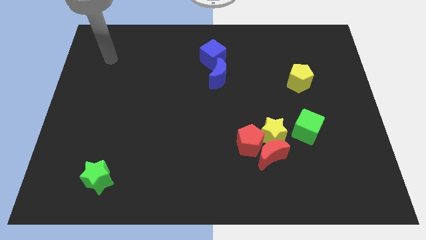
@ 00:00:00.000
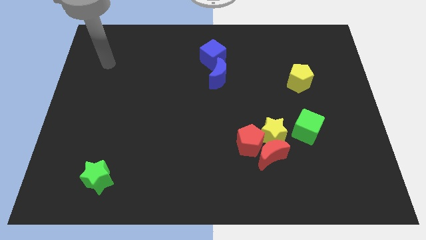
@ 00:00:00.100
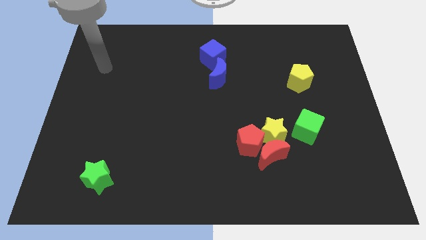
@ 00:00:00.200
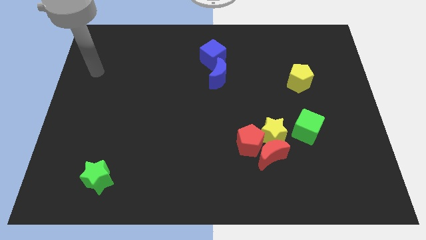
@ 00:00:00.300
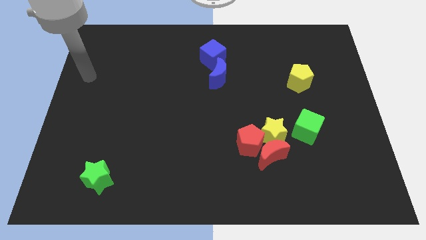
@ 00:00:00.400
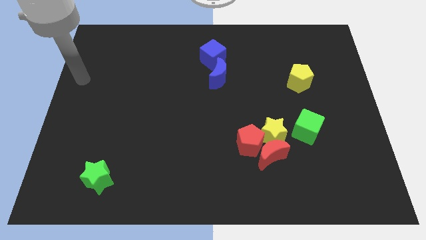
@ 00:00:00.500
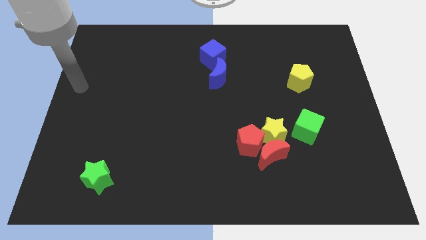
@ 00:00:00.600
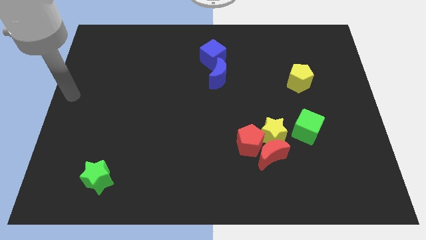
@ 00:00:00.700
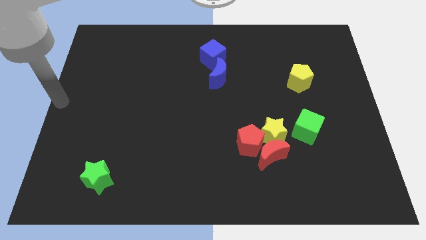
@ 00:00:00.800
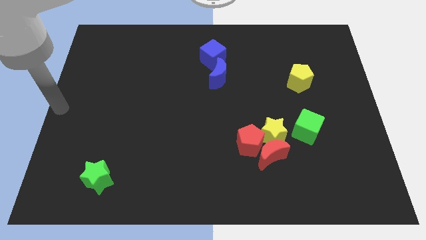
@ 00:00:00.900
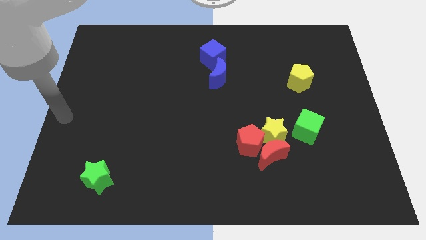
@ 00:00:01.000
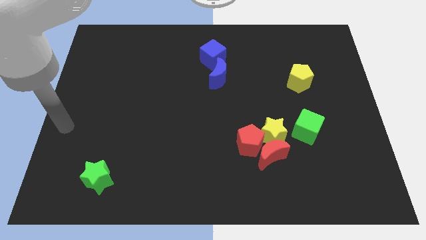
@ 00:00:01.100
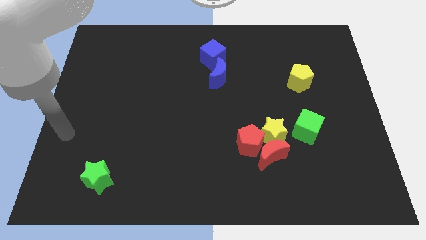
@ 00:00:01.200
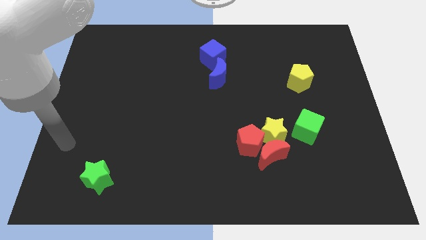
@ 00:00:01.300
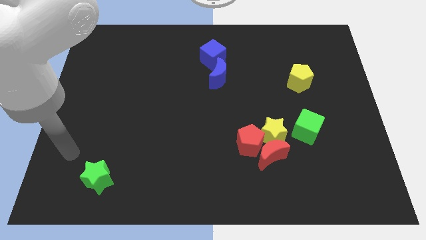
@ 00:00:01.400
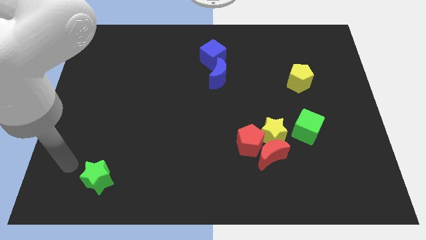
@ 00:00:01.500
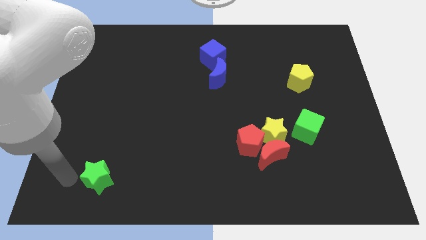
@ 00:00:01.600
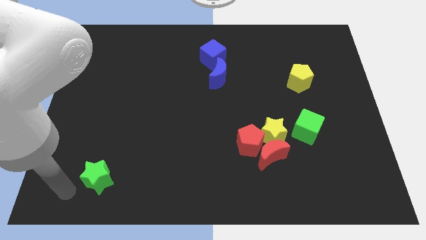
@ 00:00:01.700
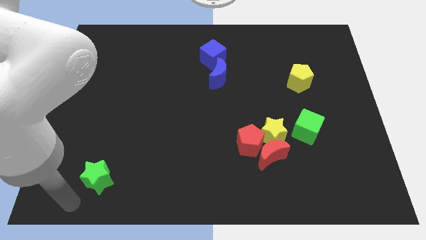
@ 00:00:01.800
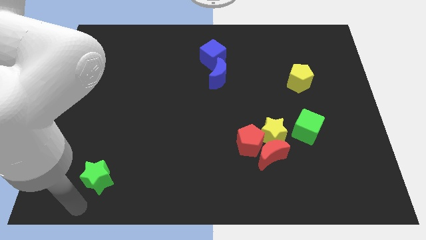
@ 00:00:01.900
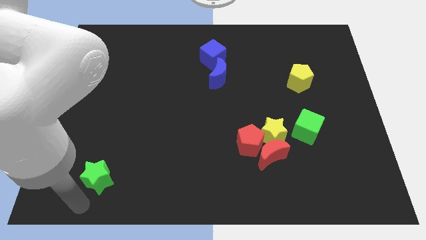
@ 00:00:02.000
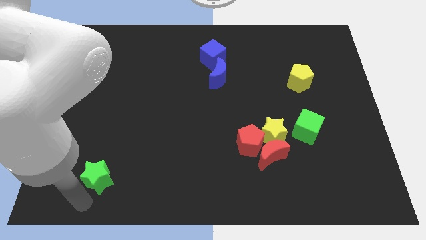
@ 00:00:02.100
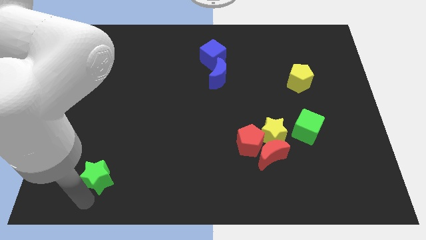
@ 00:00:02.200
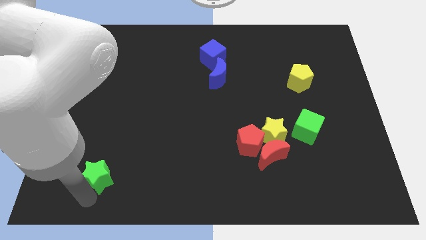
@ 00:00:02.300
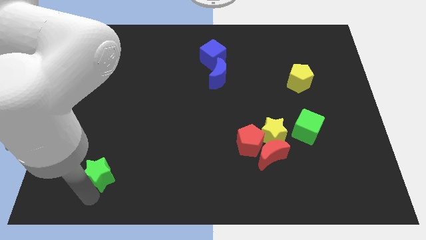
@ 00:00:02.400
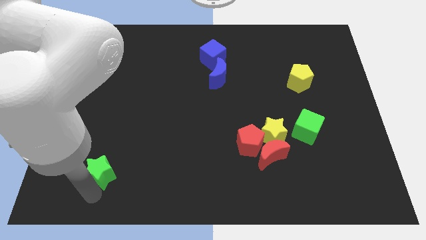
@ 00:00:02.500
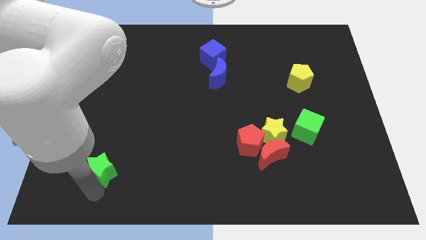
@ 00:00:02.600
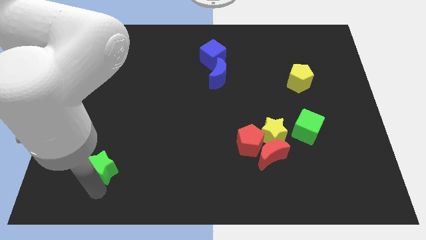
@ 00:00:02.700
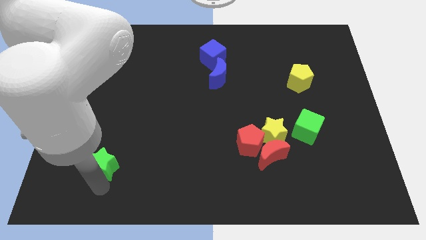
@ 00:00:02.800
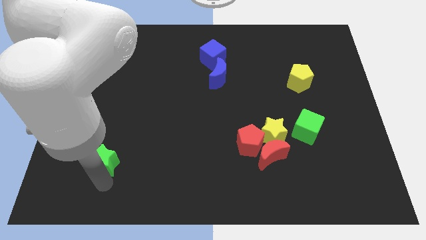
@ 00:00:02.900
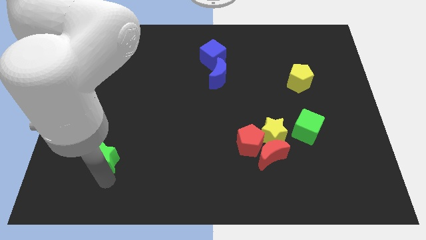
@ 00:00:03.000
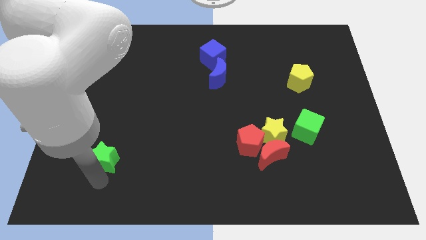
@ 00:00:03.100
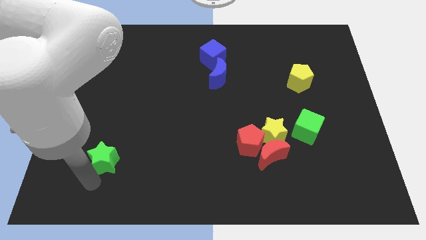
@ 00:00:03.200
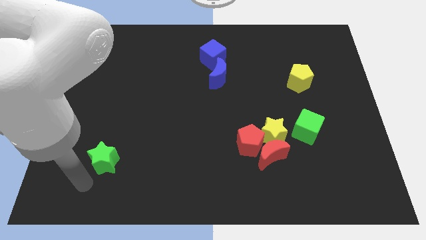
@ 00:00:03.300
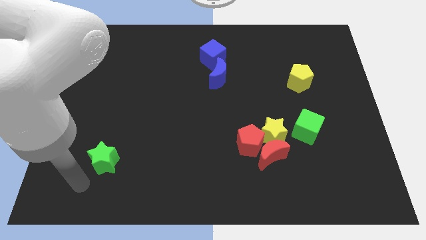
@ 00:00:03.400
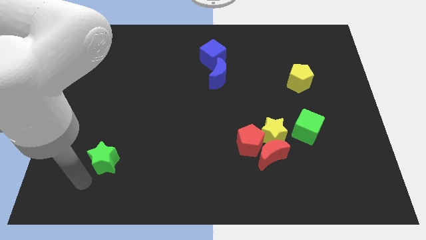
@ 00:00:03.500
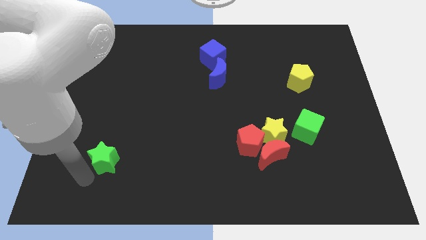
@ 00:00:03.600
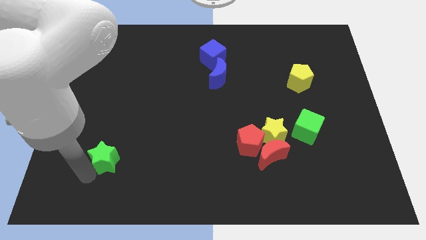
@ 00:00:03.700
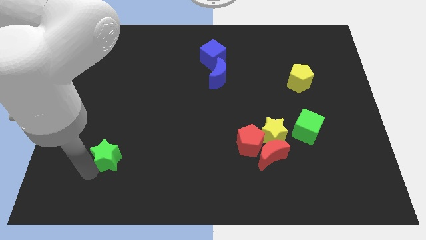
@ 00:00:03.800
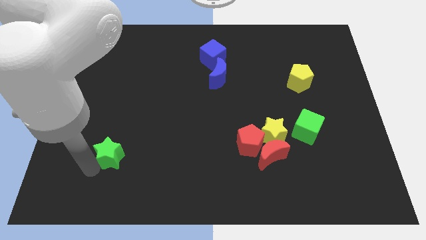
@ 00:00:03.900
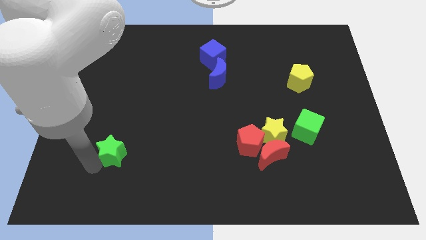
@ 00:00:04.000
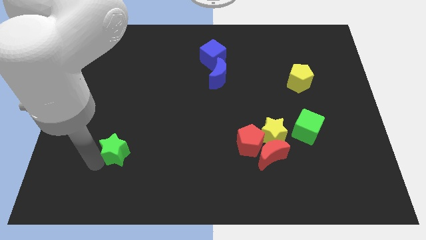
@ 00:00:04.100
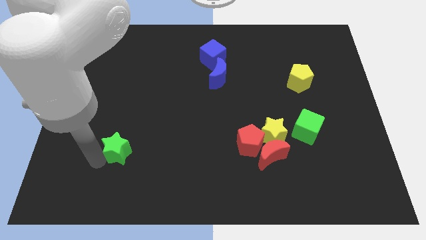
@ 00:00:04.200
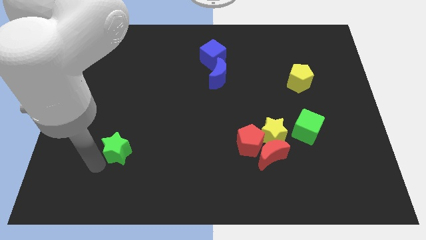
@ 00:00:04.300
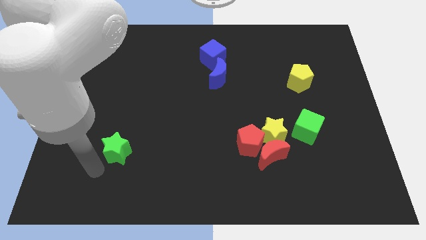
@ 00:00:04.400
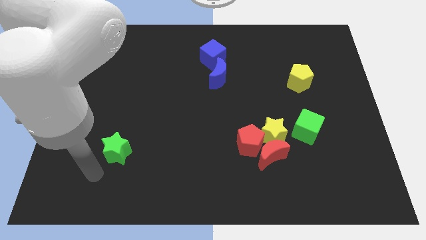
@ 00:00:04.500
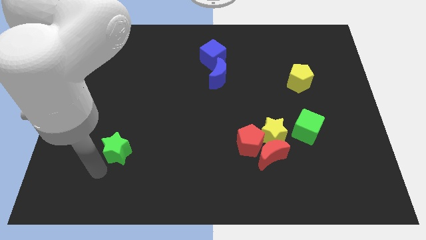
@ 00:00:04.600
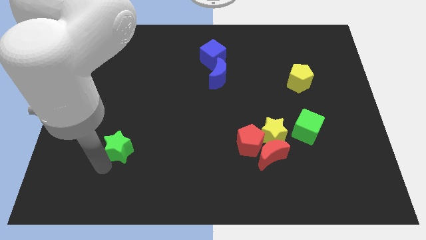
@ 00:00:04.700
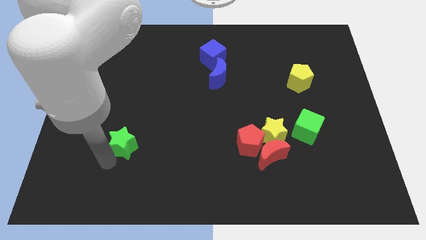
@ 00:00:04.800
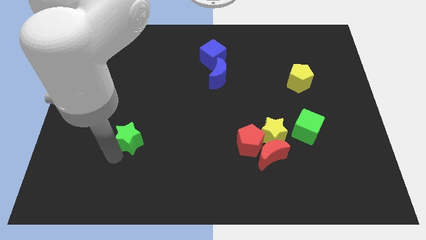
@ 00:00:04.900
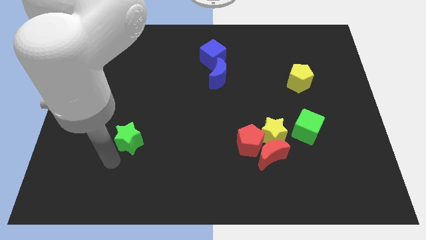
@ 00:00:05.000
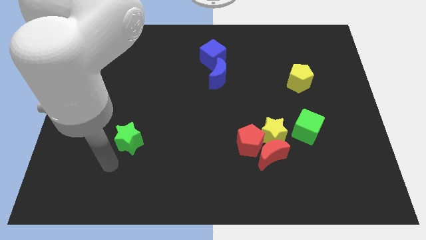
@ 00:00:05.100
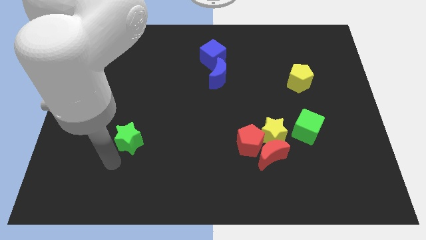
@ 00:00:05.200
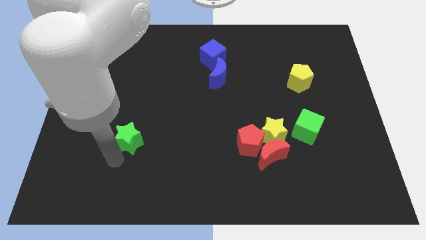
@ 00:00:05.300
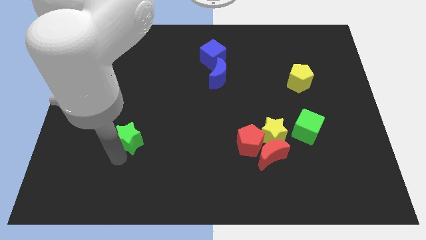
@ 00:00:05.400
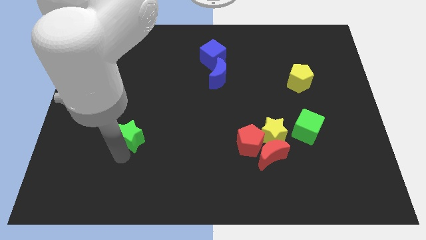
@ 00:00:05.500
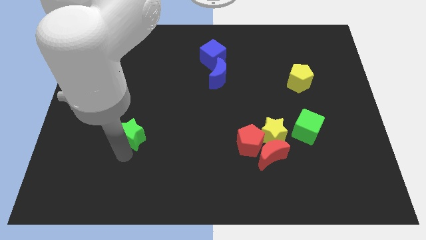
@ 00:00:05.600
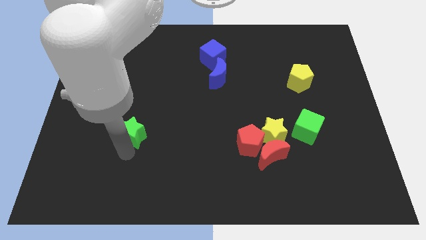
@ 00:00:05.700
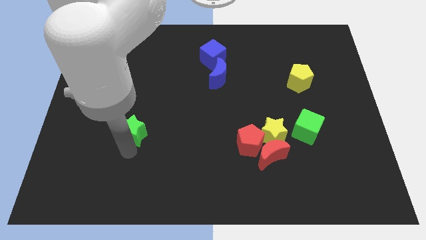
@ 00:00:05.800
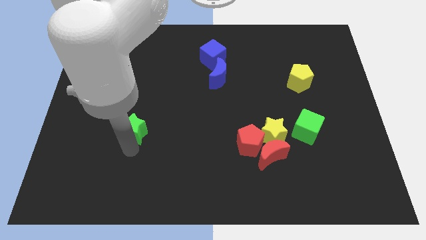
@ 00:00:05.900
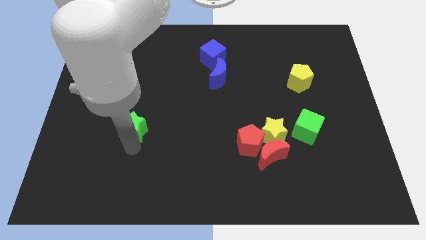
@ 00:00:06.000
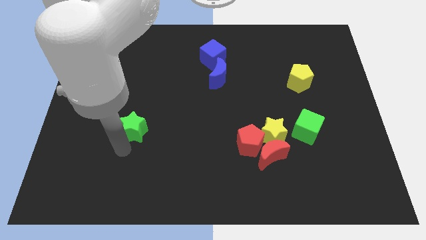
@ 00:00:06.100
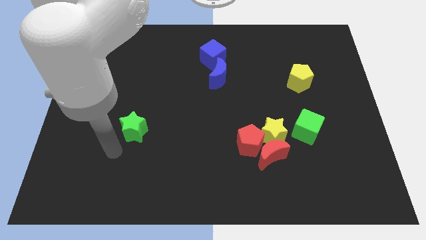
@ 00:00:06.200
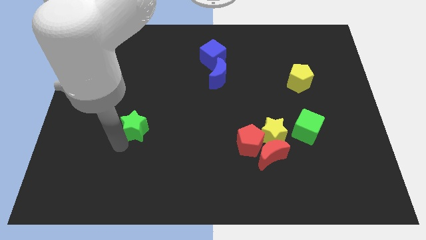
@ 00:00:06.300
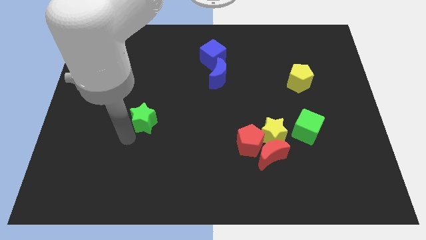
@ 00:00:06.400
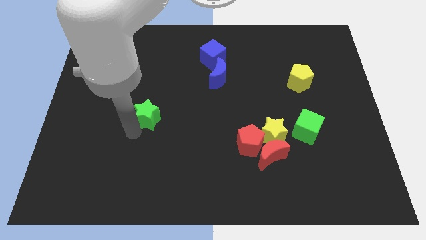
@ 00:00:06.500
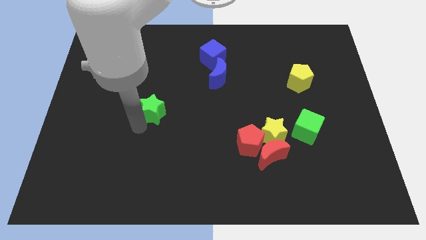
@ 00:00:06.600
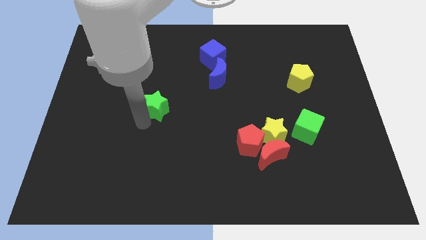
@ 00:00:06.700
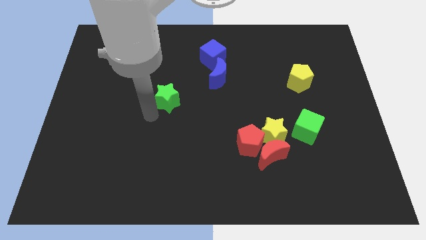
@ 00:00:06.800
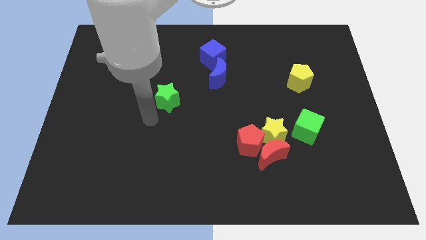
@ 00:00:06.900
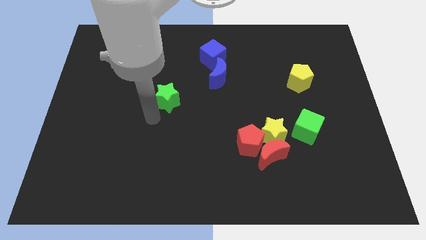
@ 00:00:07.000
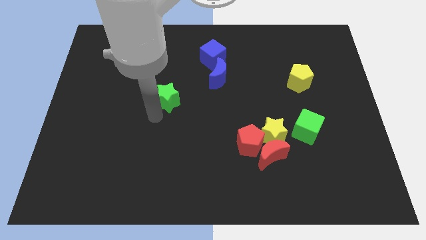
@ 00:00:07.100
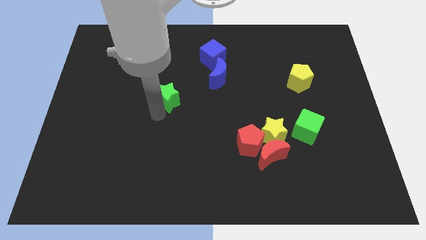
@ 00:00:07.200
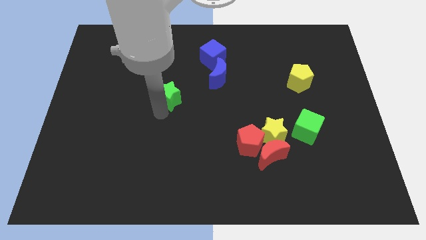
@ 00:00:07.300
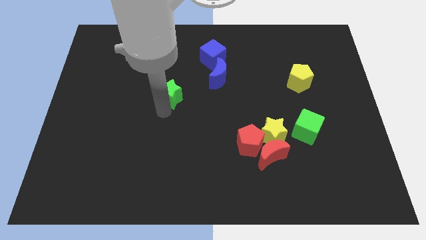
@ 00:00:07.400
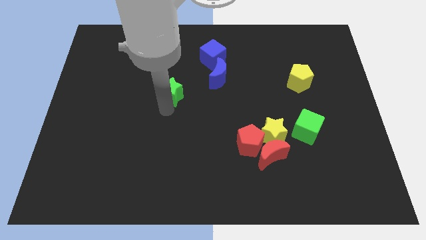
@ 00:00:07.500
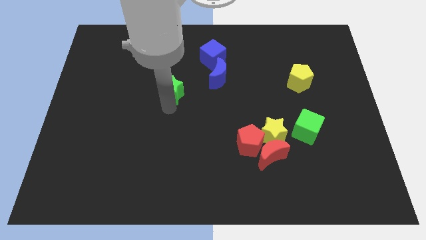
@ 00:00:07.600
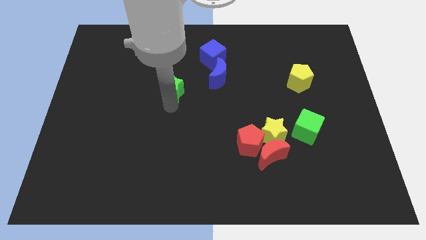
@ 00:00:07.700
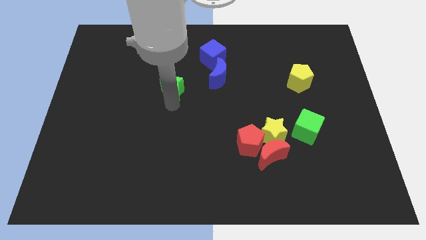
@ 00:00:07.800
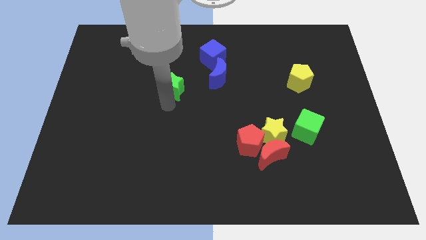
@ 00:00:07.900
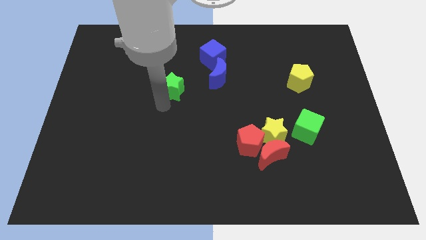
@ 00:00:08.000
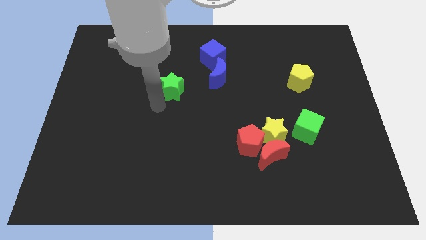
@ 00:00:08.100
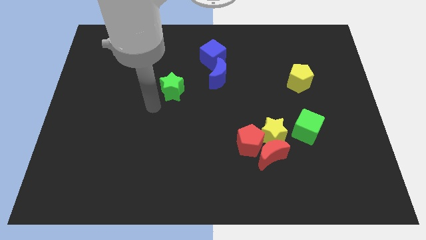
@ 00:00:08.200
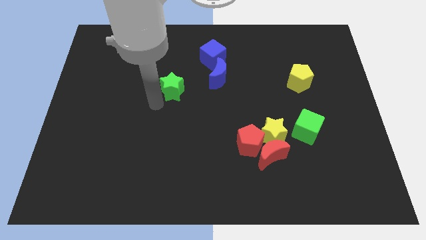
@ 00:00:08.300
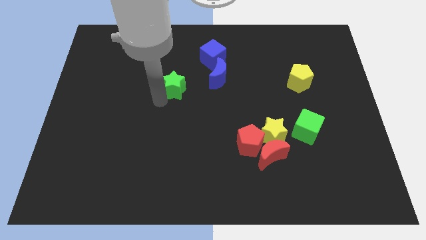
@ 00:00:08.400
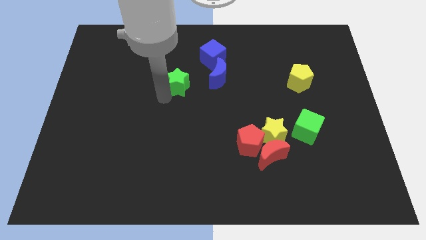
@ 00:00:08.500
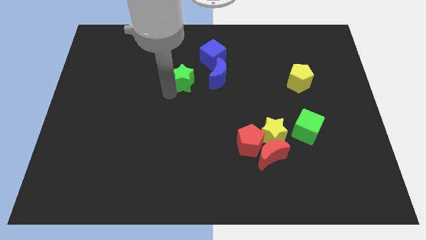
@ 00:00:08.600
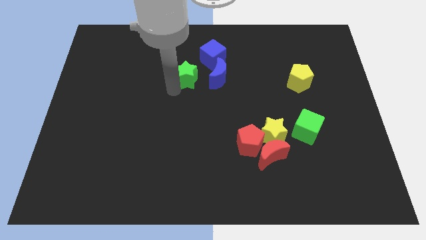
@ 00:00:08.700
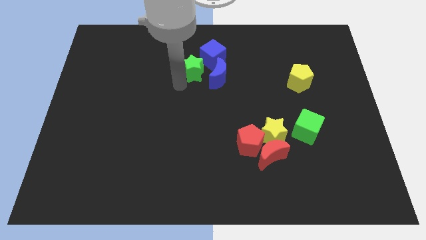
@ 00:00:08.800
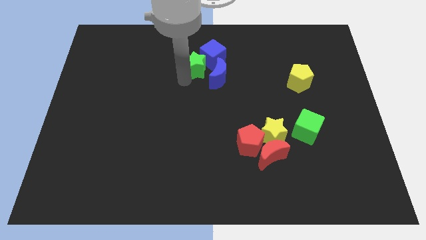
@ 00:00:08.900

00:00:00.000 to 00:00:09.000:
put the green star close to the blue cube
